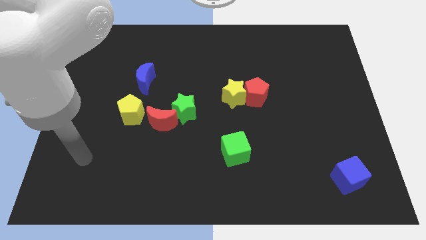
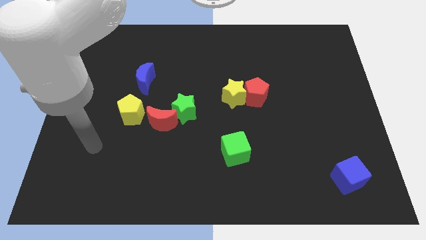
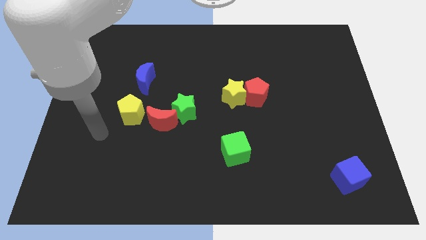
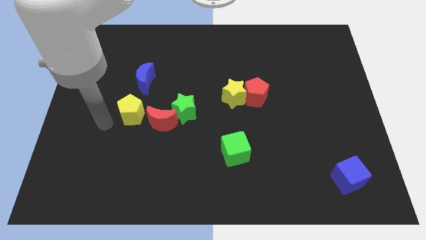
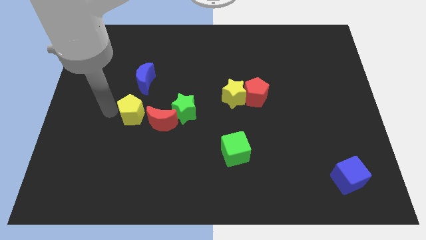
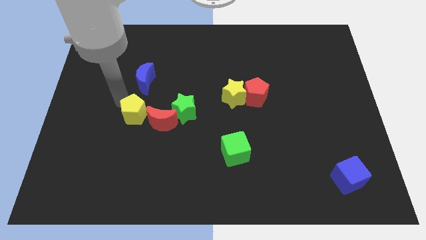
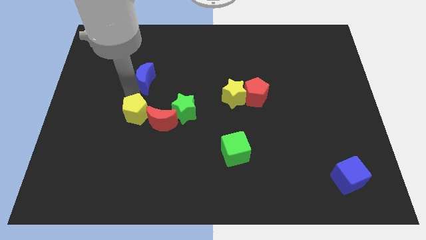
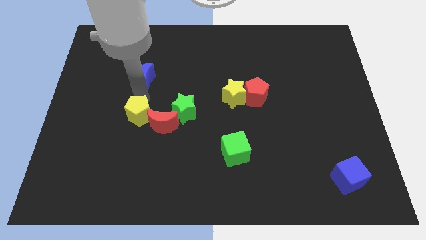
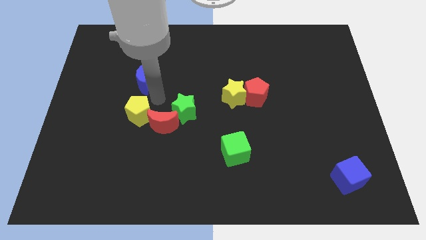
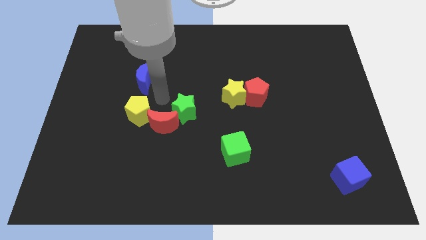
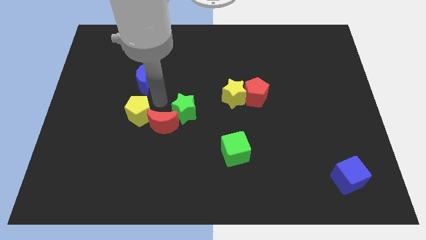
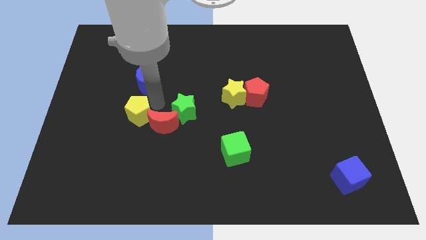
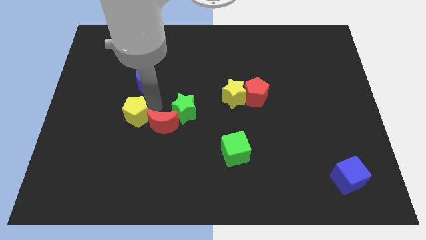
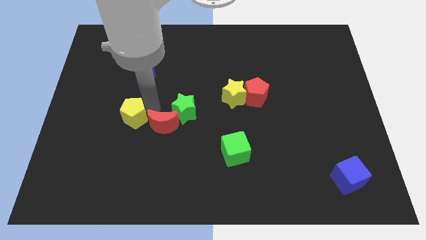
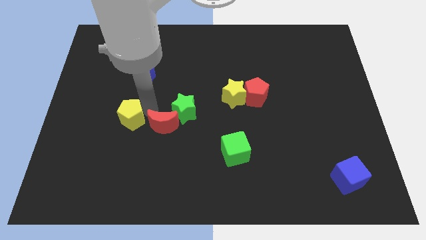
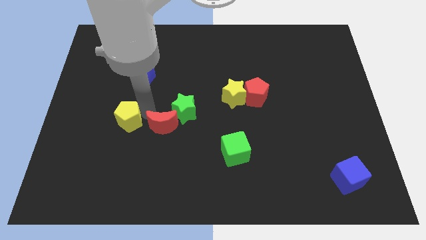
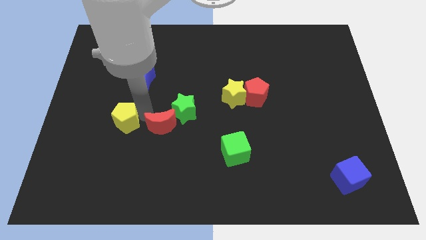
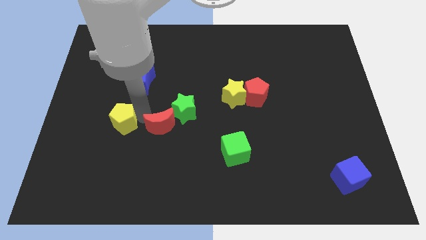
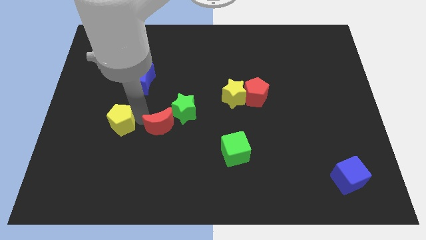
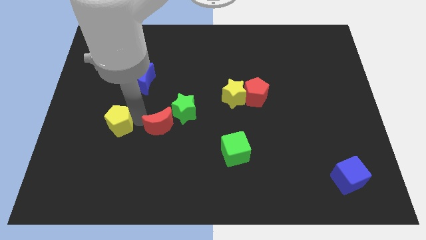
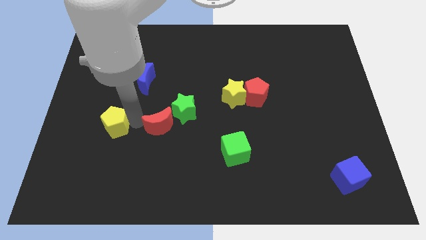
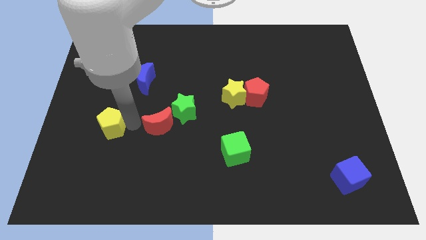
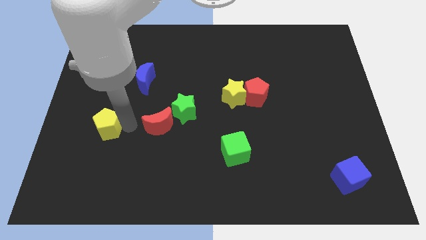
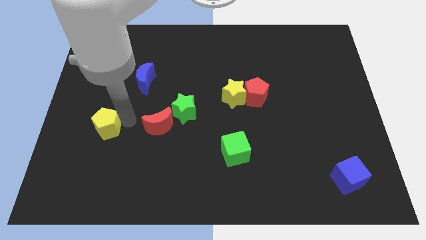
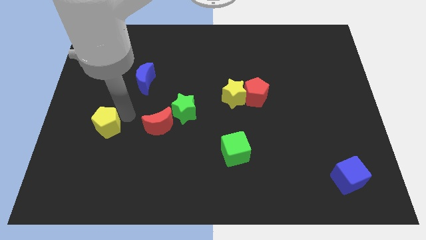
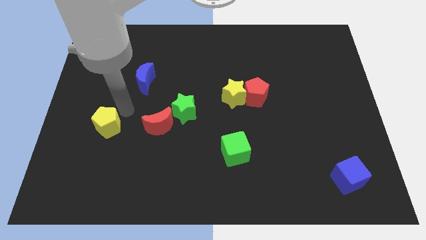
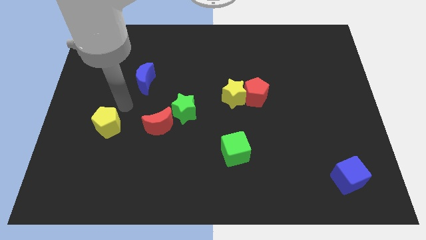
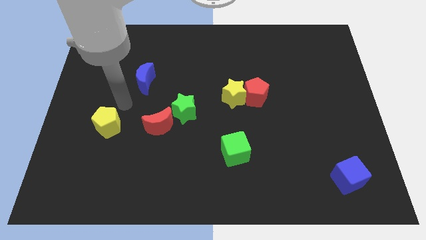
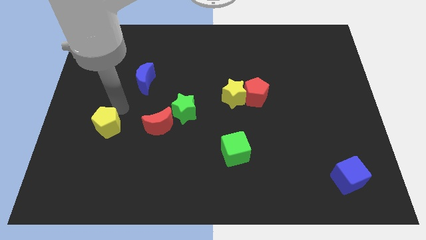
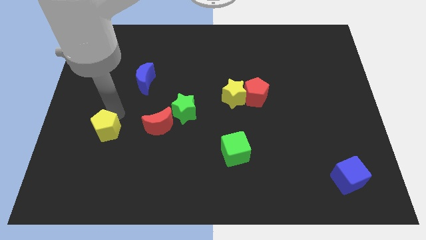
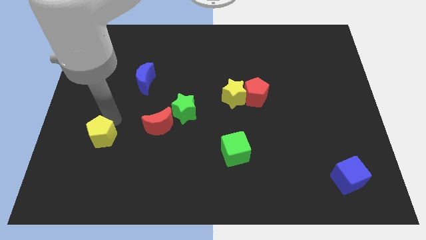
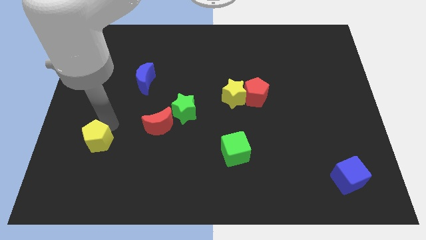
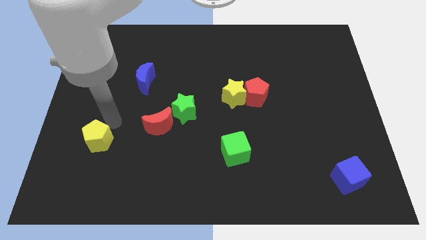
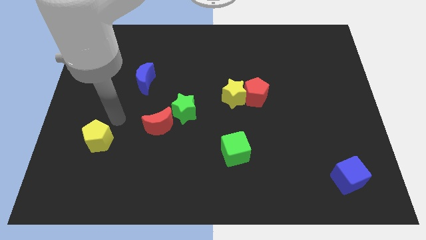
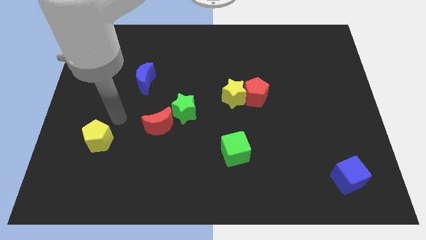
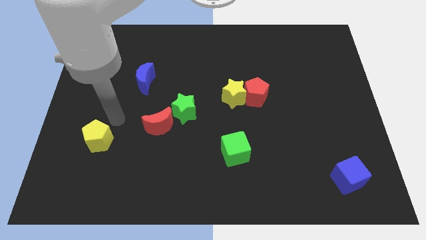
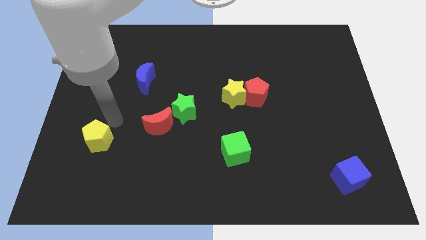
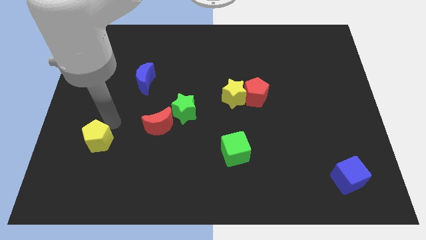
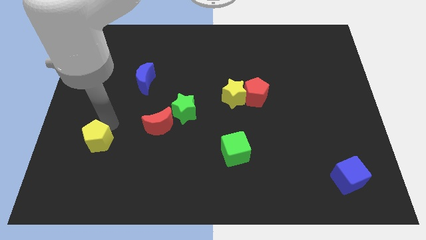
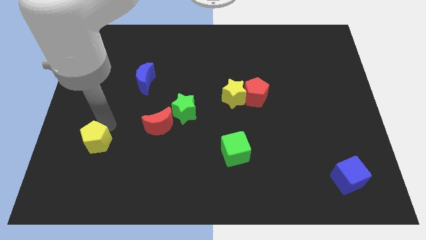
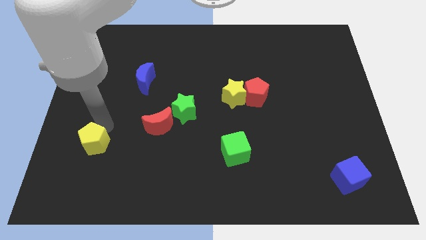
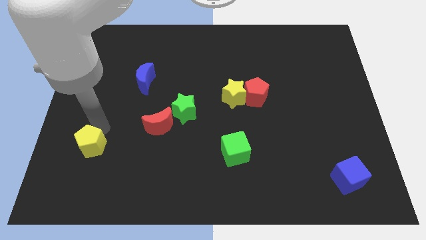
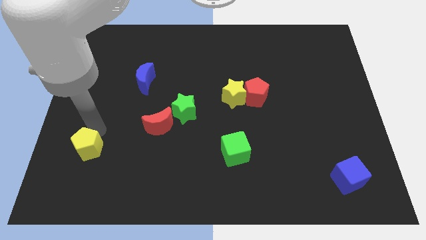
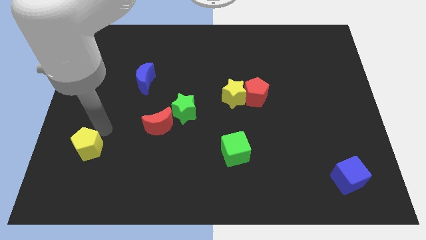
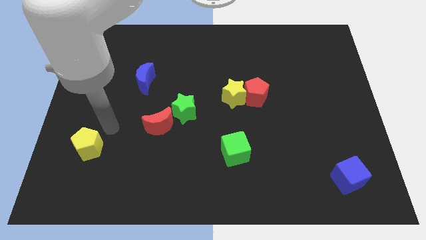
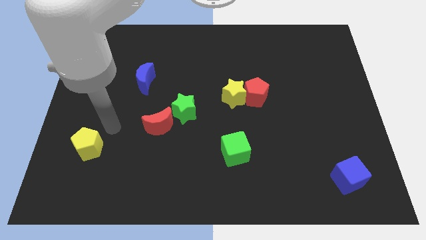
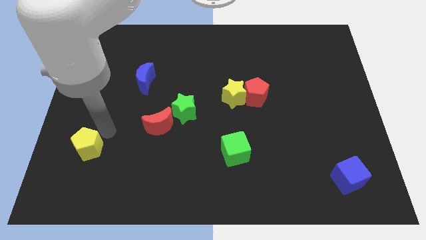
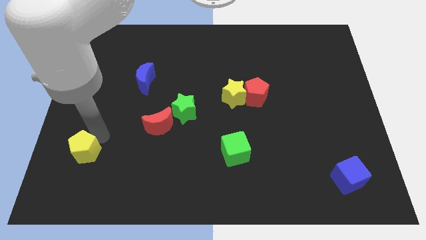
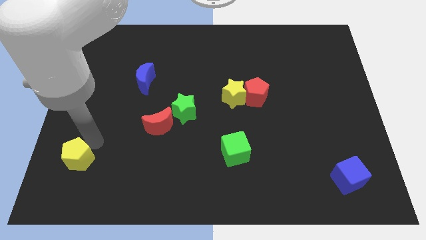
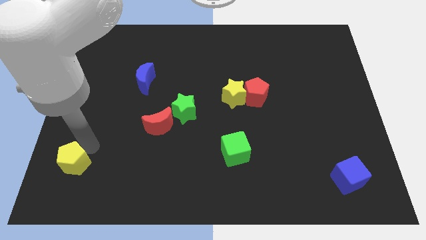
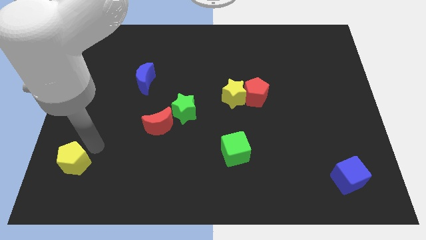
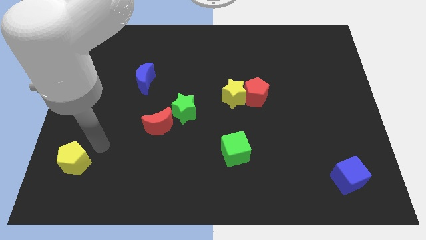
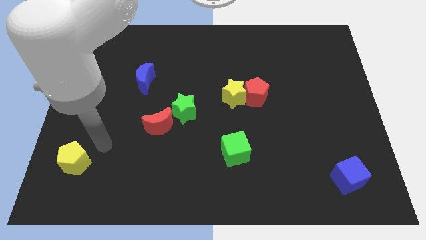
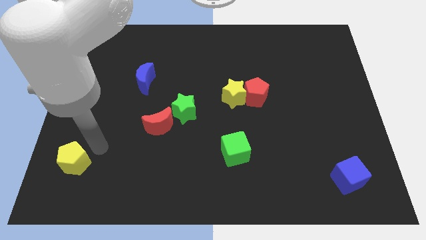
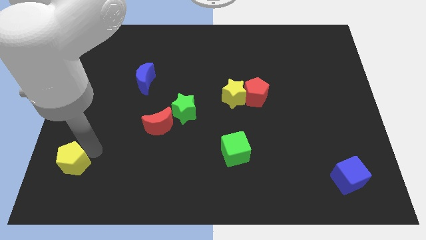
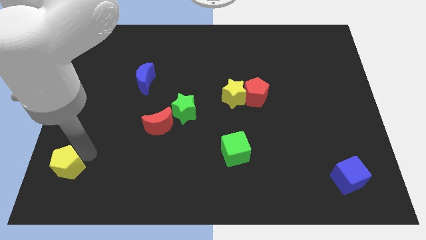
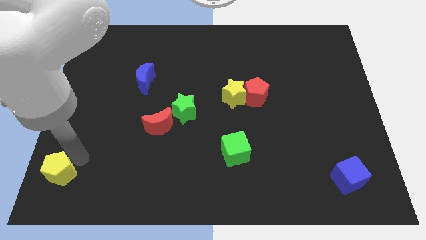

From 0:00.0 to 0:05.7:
slide the yellow pentagon to the lower left corner

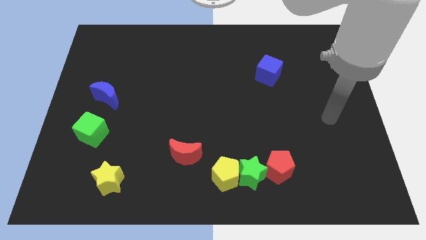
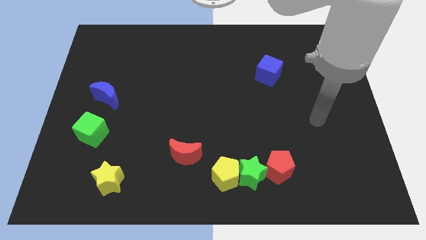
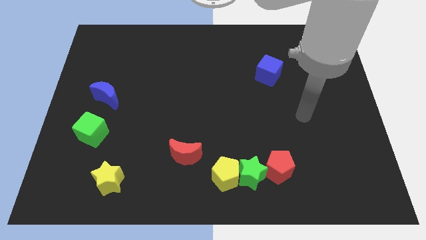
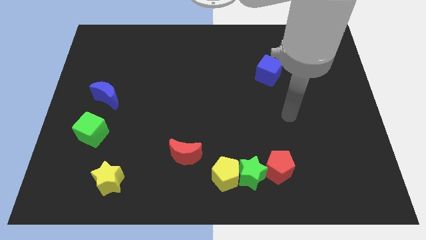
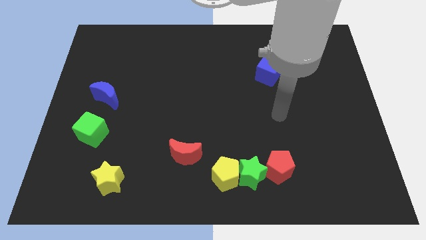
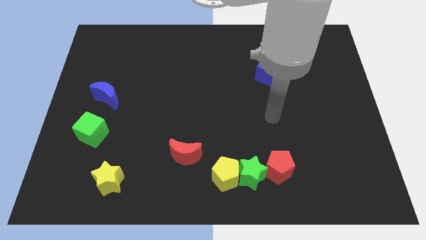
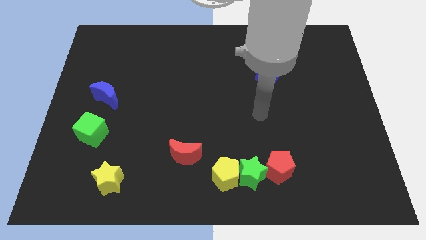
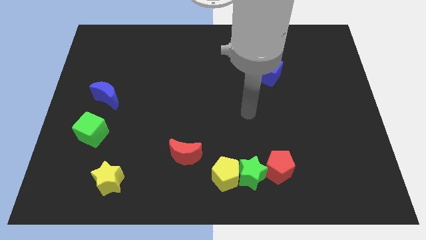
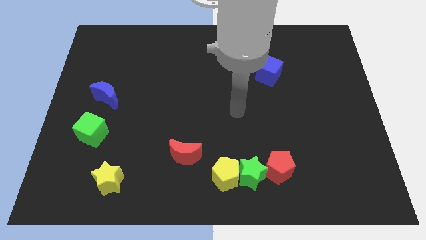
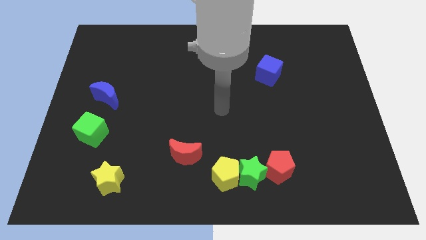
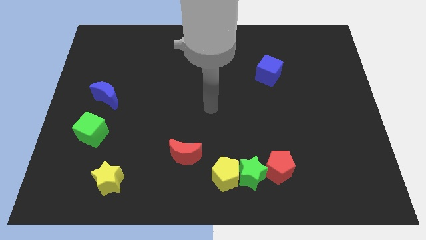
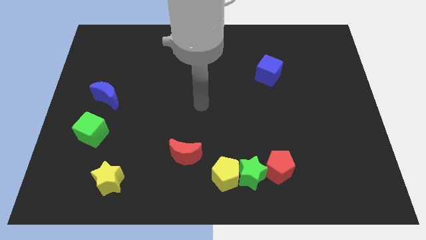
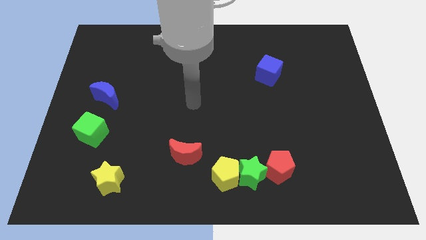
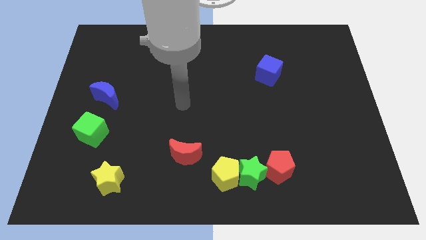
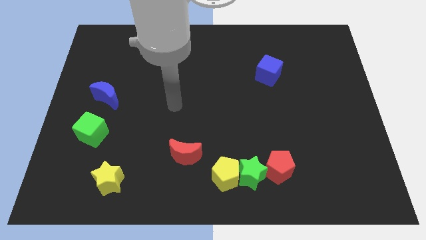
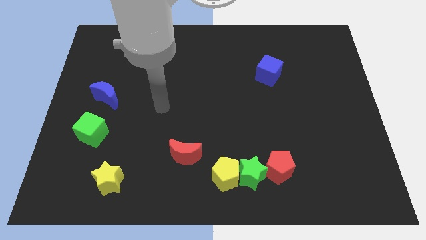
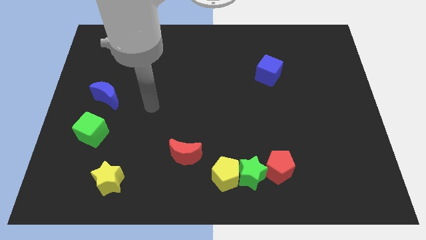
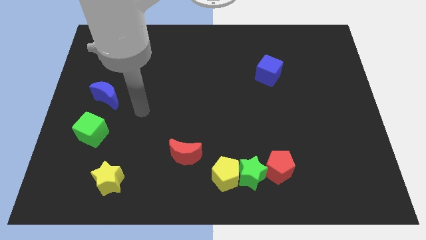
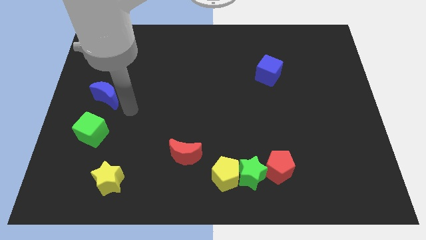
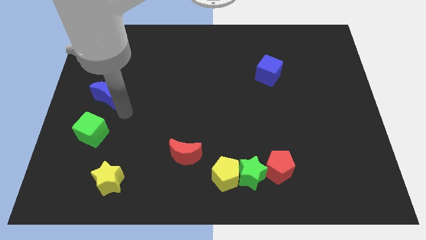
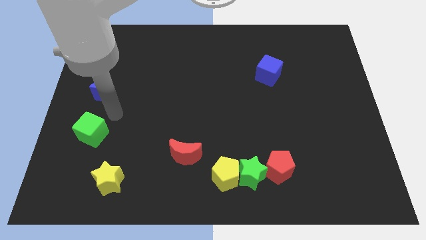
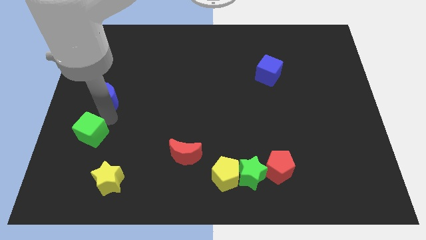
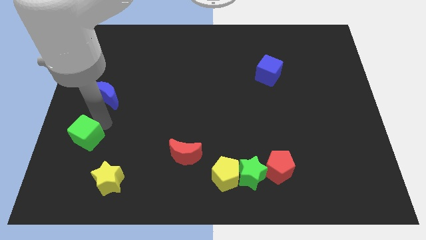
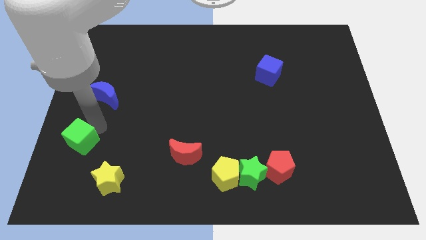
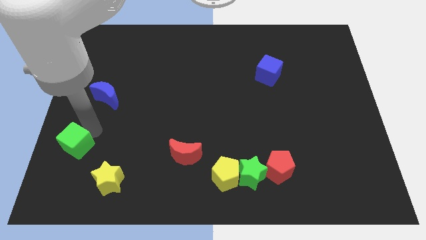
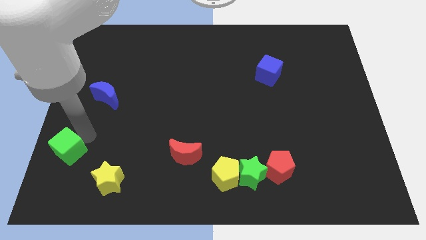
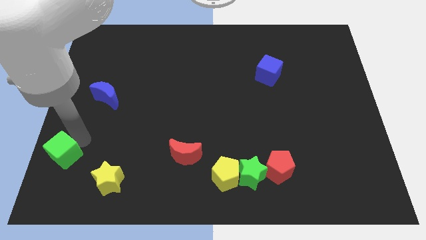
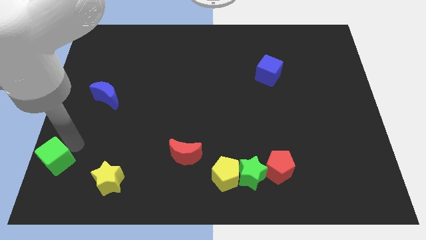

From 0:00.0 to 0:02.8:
put the green cube to the bottom left
